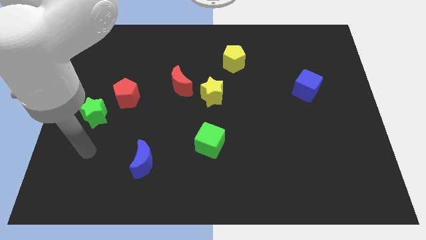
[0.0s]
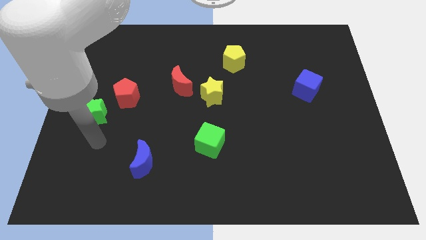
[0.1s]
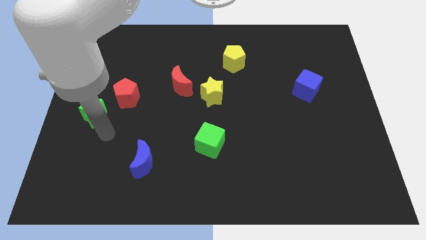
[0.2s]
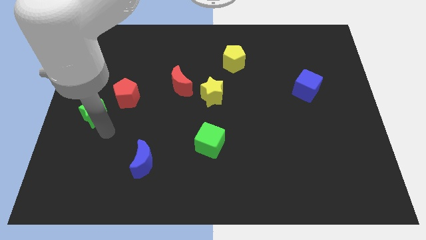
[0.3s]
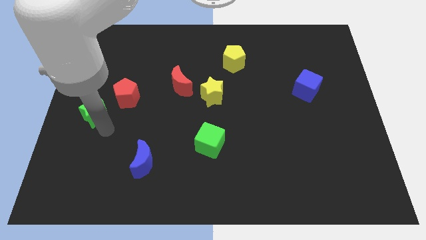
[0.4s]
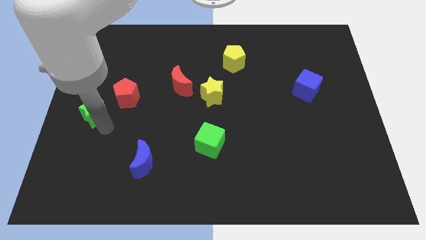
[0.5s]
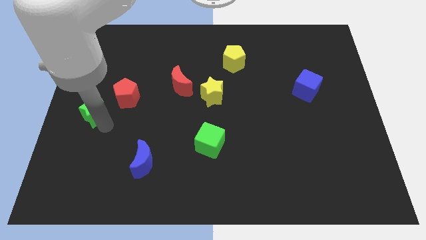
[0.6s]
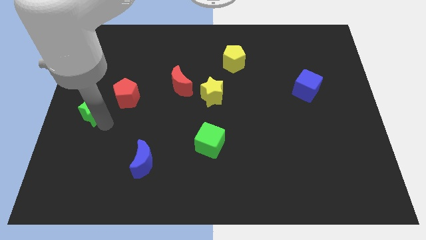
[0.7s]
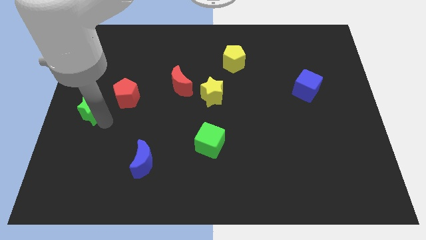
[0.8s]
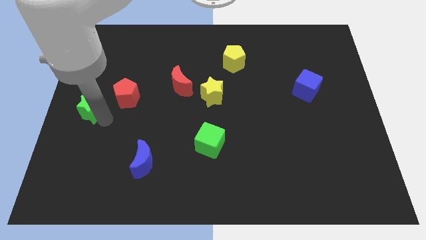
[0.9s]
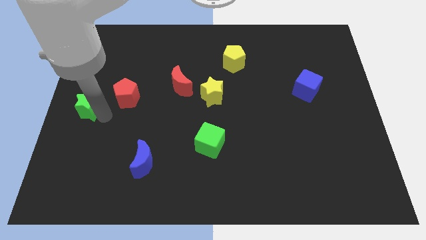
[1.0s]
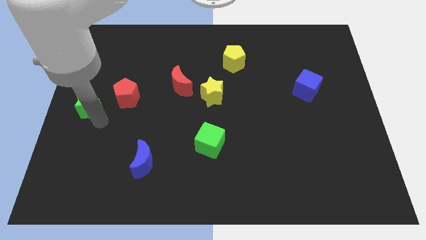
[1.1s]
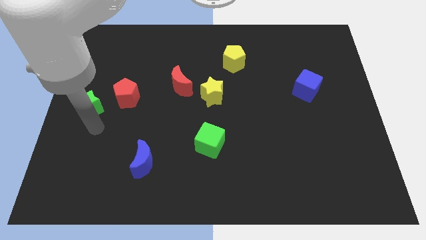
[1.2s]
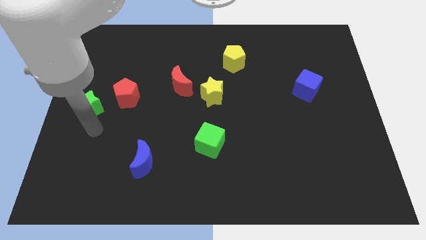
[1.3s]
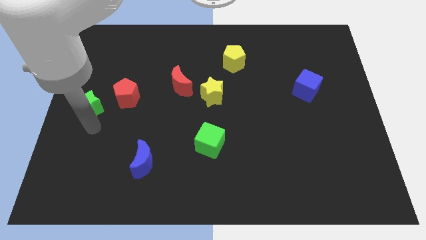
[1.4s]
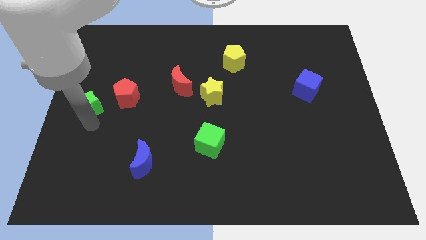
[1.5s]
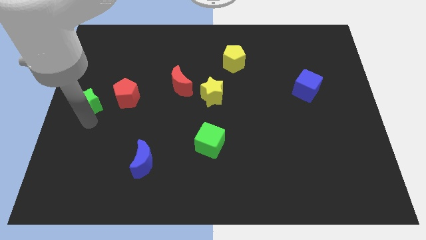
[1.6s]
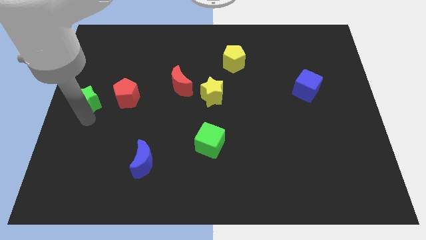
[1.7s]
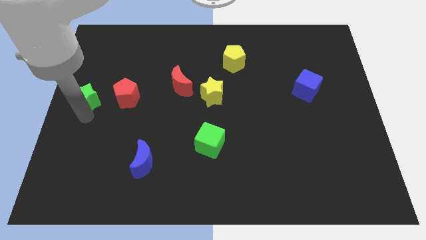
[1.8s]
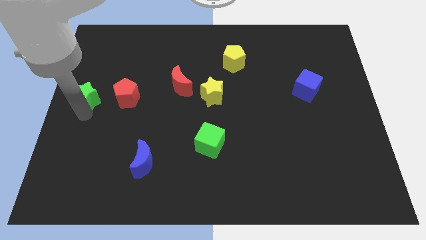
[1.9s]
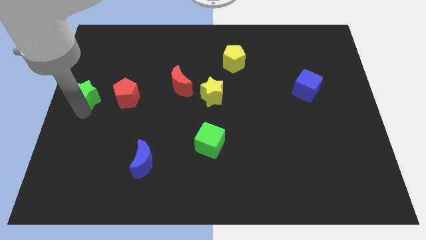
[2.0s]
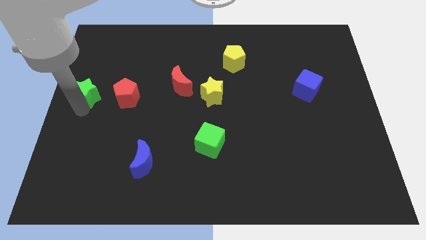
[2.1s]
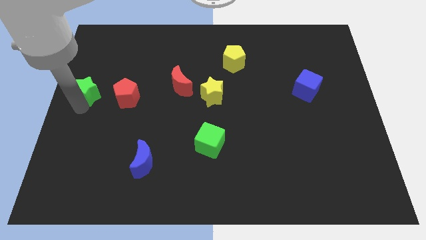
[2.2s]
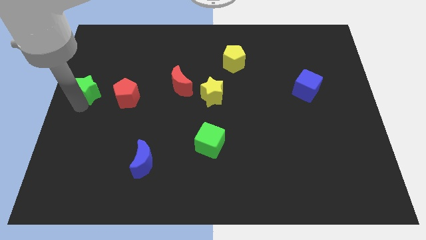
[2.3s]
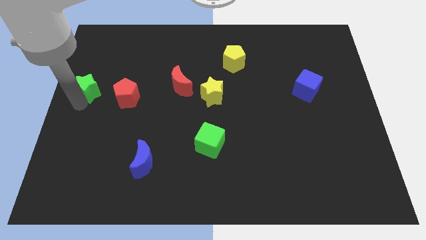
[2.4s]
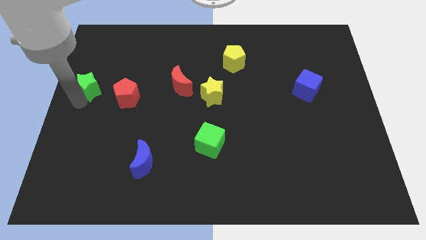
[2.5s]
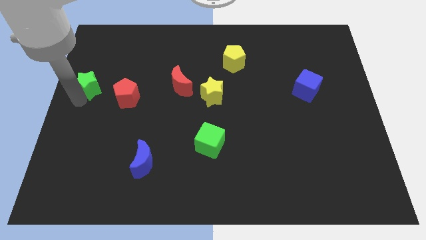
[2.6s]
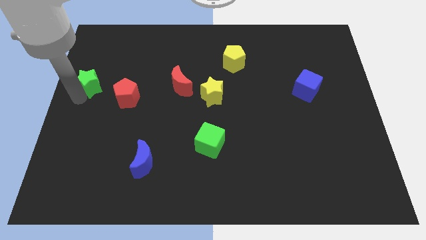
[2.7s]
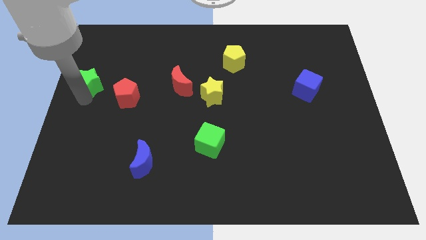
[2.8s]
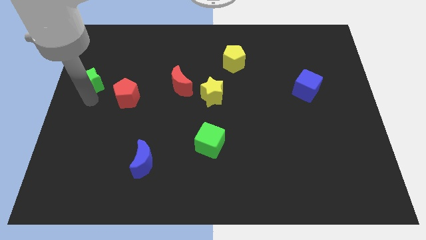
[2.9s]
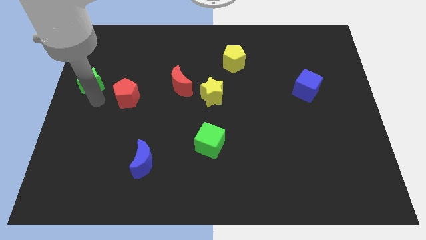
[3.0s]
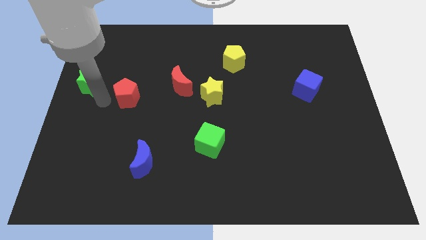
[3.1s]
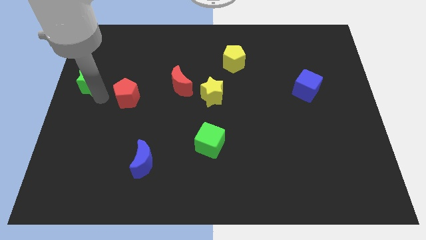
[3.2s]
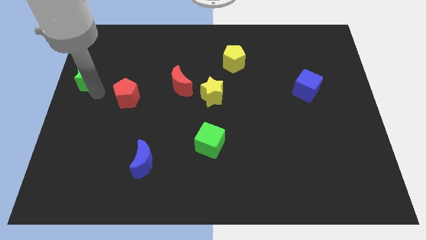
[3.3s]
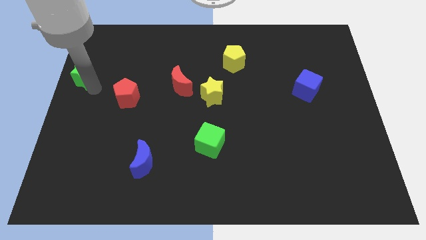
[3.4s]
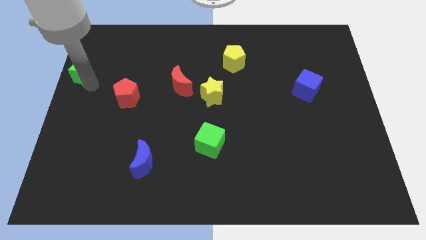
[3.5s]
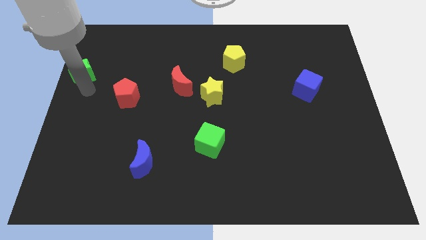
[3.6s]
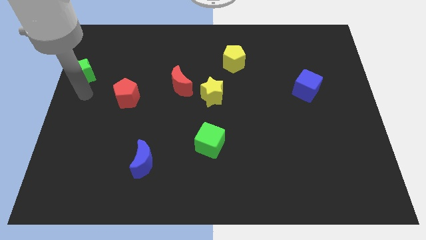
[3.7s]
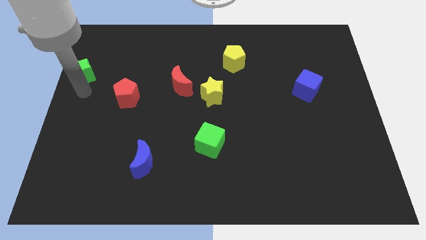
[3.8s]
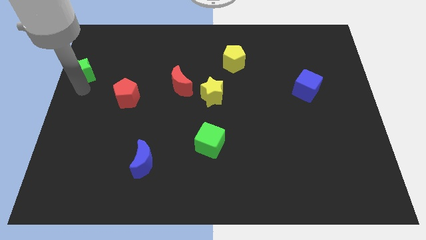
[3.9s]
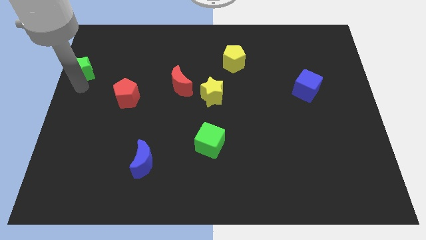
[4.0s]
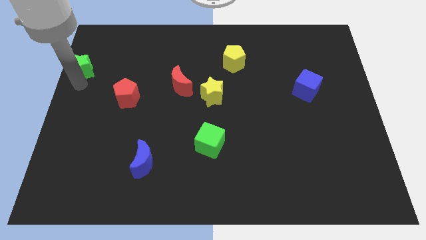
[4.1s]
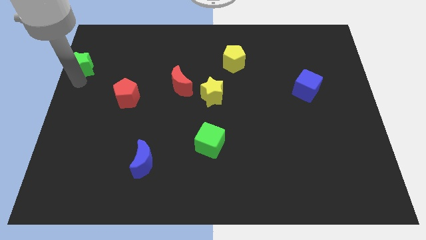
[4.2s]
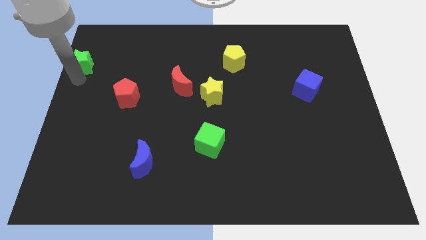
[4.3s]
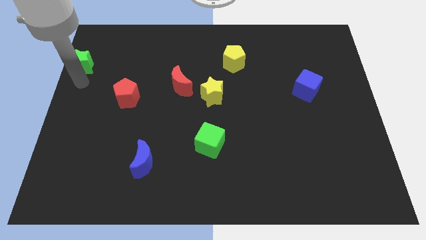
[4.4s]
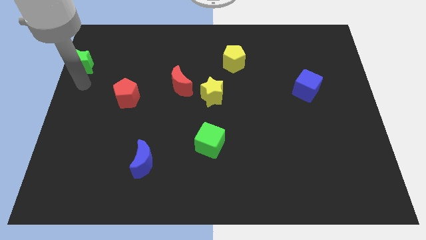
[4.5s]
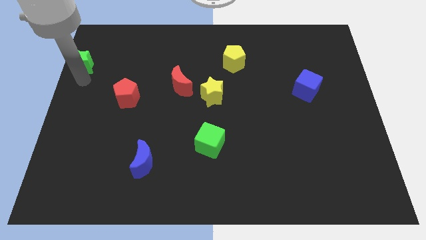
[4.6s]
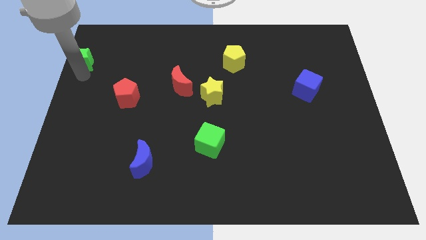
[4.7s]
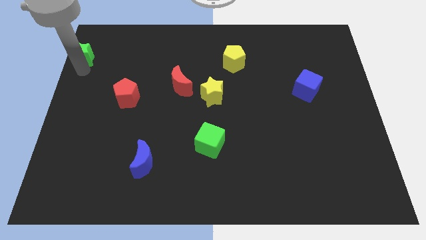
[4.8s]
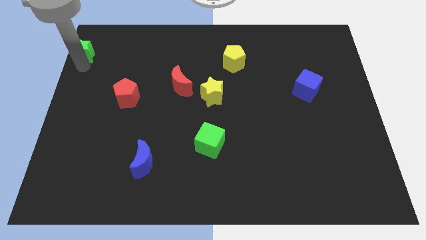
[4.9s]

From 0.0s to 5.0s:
move the green star to the top left corner

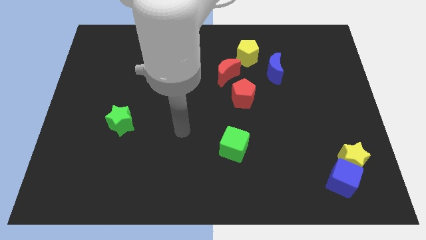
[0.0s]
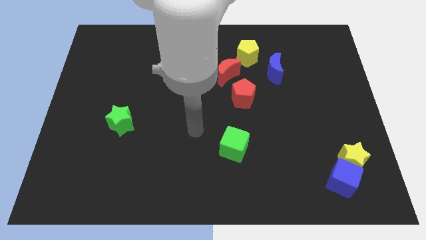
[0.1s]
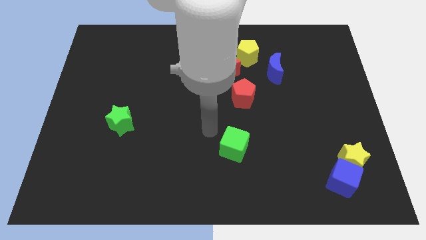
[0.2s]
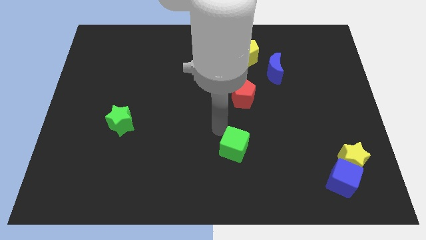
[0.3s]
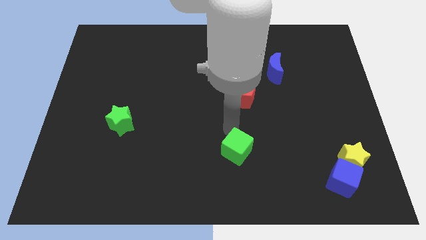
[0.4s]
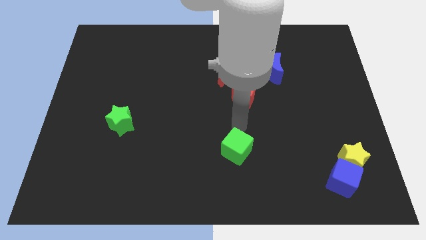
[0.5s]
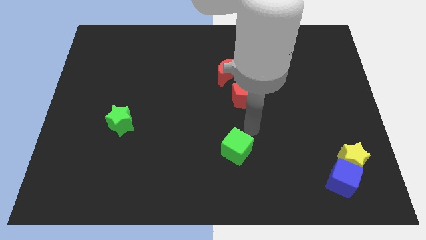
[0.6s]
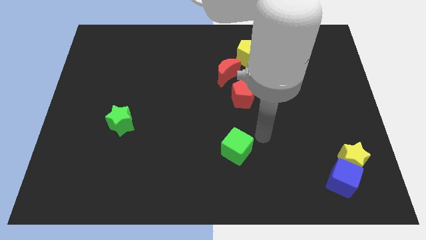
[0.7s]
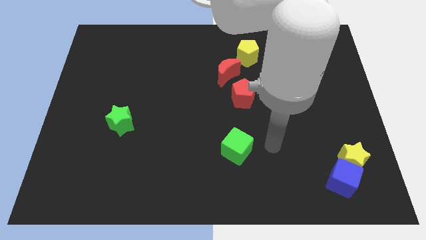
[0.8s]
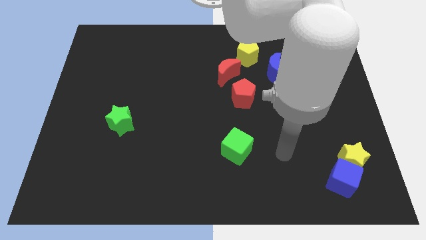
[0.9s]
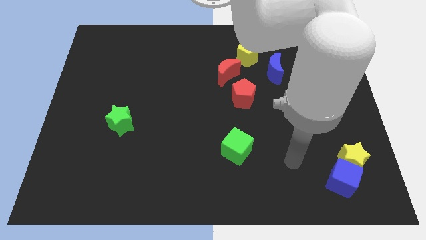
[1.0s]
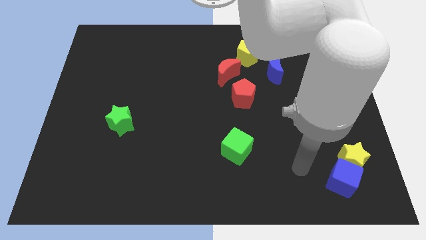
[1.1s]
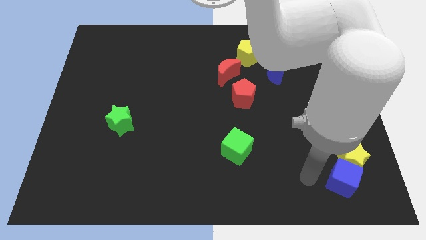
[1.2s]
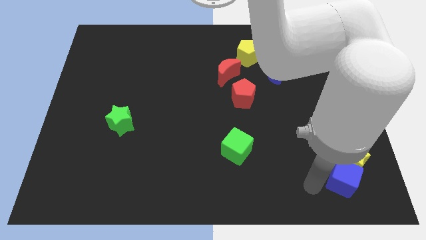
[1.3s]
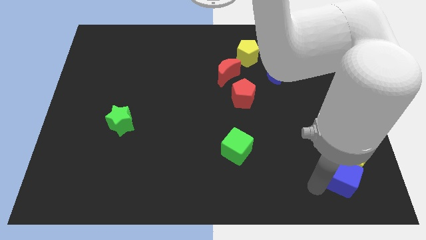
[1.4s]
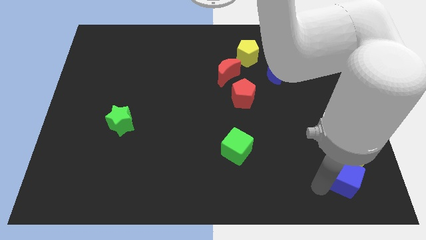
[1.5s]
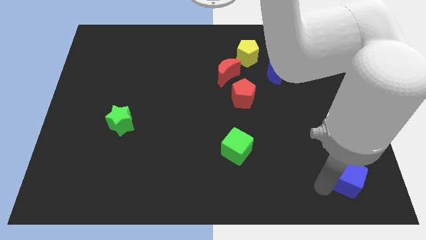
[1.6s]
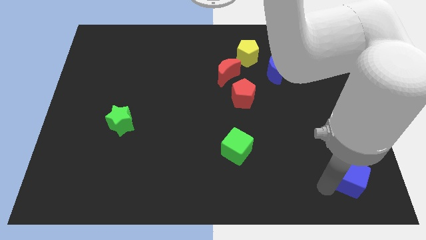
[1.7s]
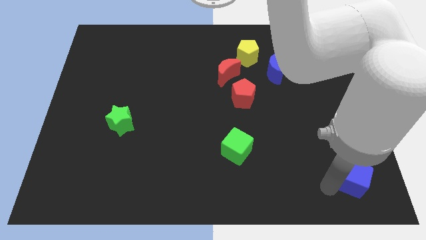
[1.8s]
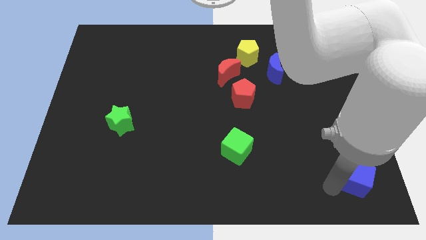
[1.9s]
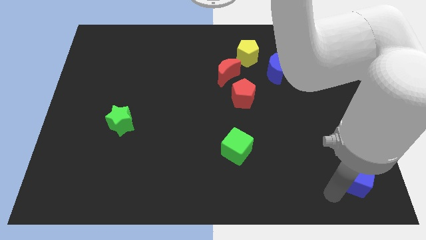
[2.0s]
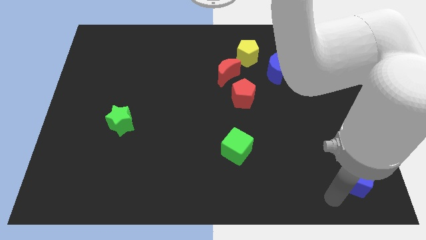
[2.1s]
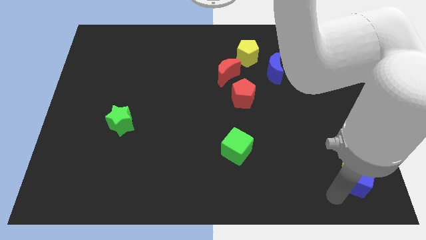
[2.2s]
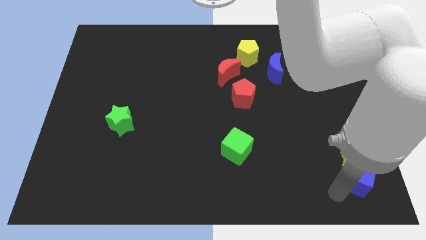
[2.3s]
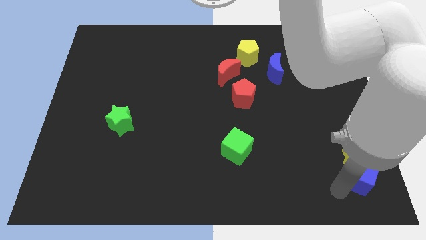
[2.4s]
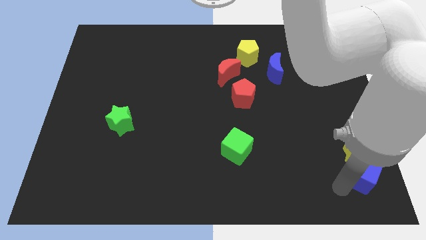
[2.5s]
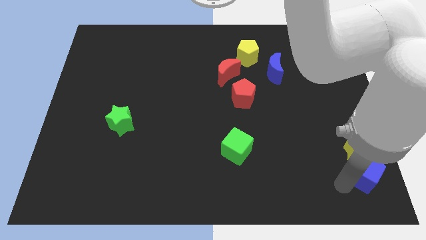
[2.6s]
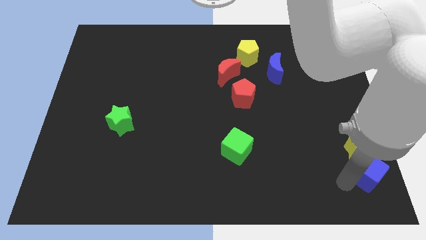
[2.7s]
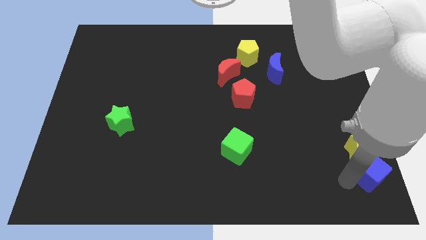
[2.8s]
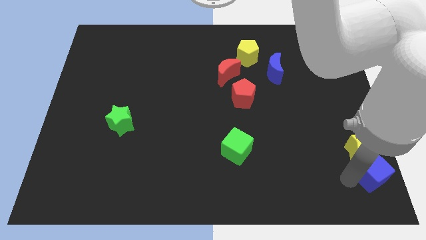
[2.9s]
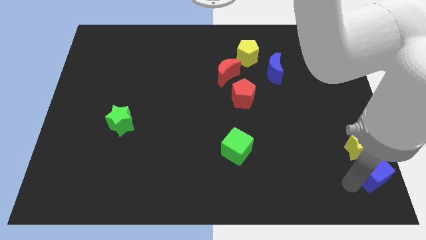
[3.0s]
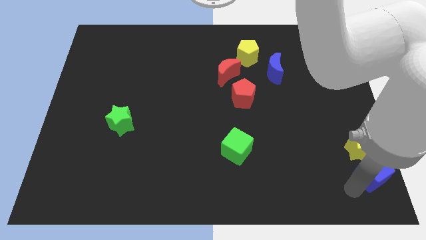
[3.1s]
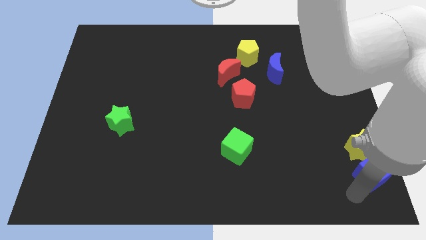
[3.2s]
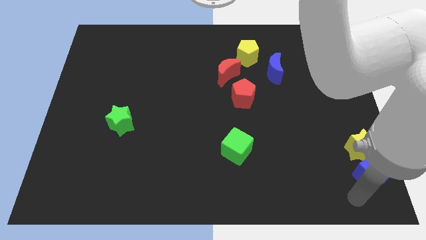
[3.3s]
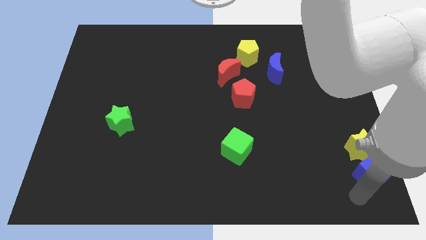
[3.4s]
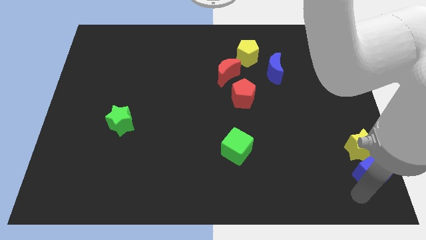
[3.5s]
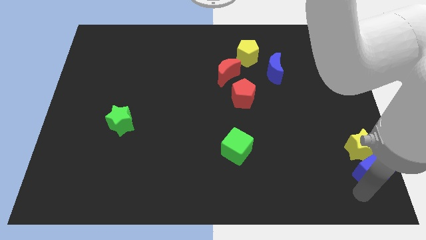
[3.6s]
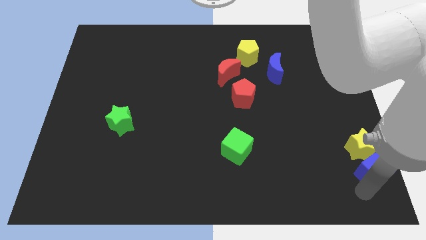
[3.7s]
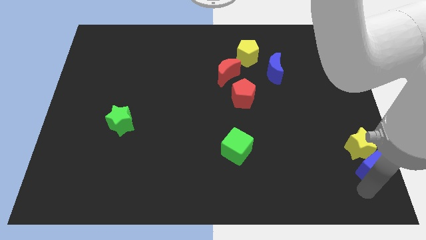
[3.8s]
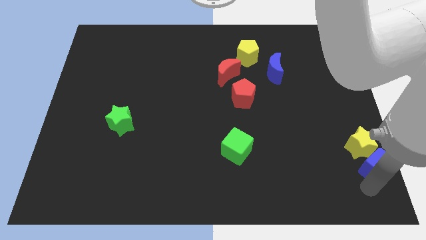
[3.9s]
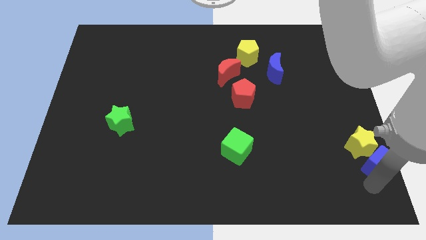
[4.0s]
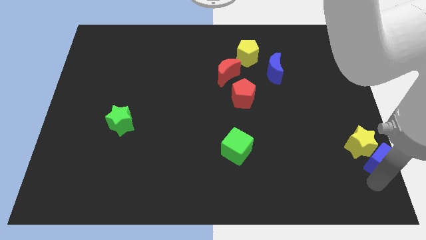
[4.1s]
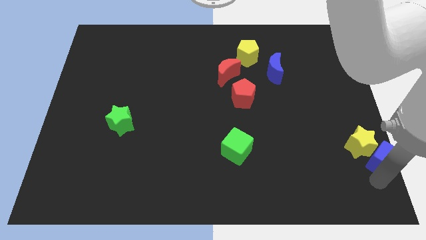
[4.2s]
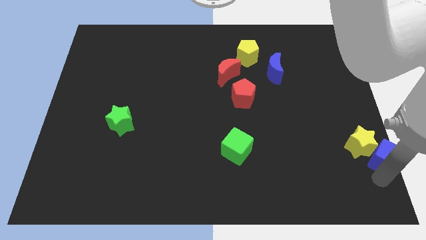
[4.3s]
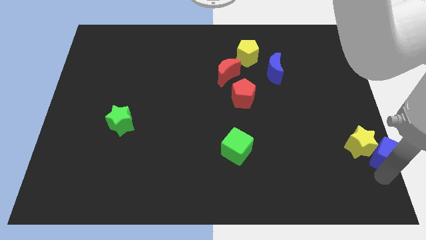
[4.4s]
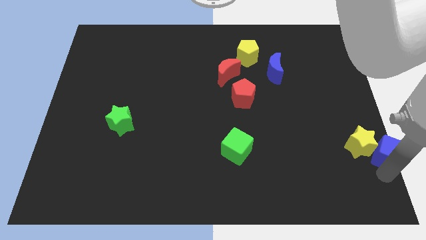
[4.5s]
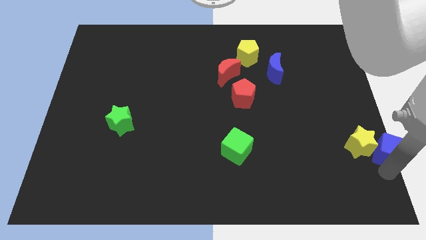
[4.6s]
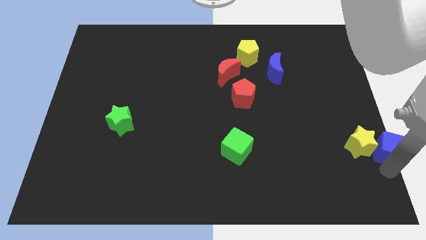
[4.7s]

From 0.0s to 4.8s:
slide the blue cube to the right side
